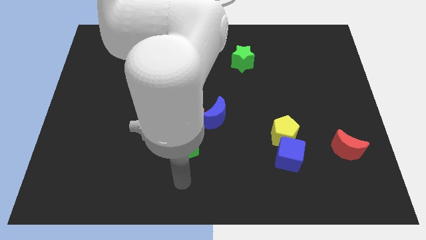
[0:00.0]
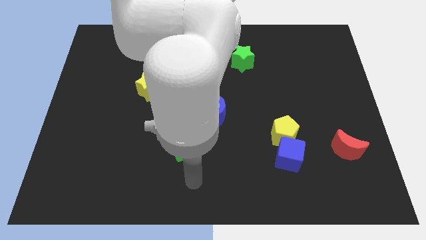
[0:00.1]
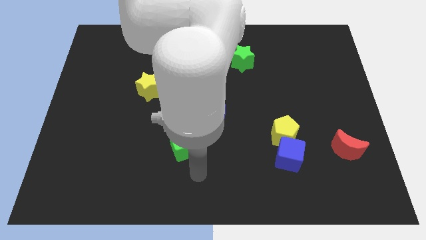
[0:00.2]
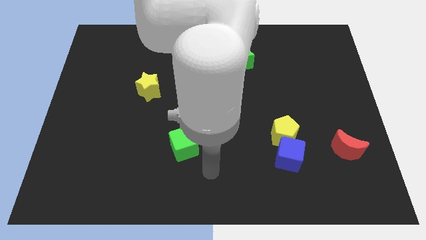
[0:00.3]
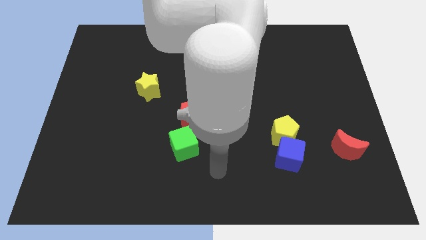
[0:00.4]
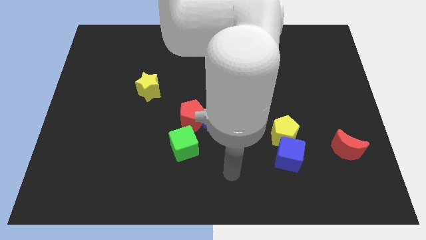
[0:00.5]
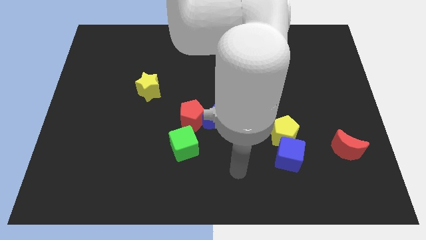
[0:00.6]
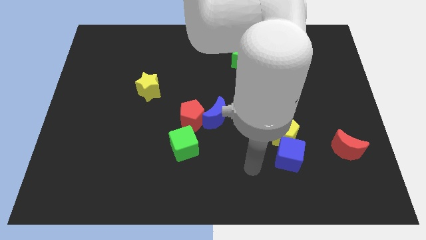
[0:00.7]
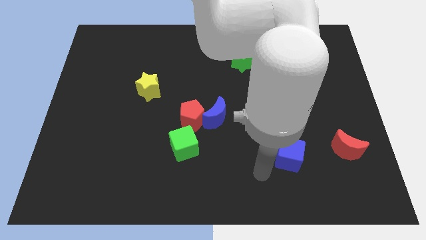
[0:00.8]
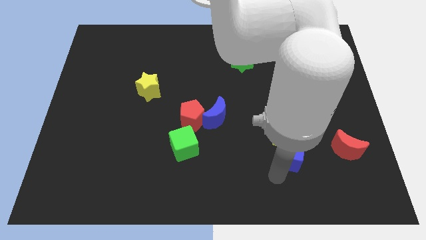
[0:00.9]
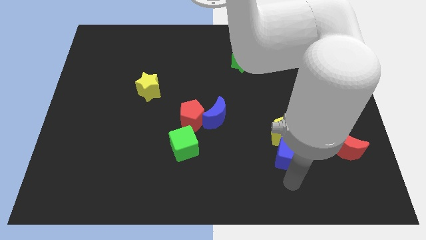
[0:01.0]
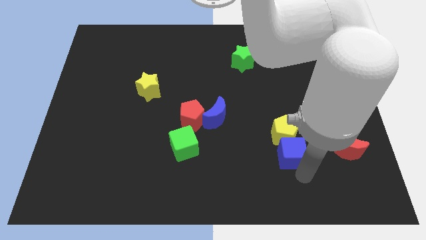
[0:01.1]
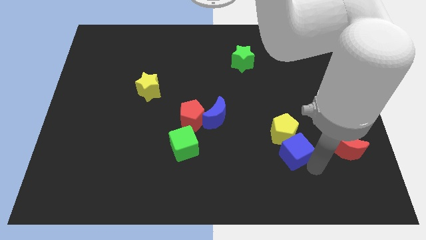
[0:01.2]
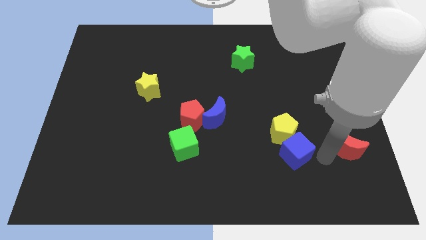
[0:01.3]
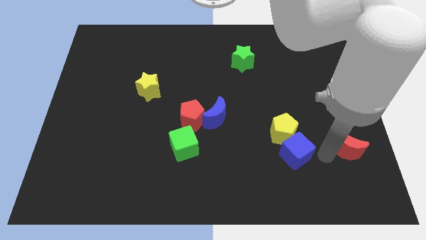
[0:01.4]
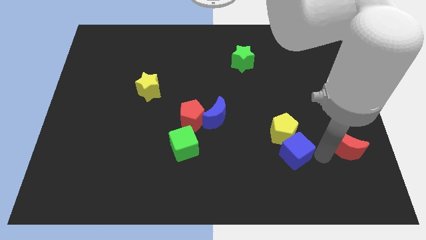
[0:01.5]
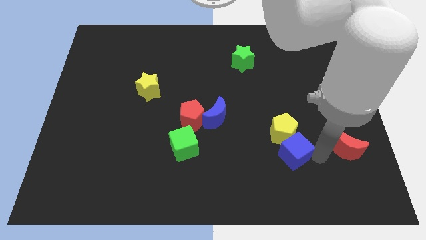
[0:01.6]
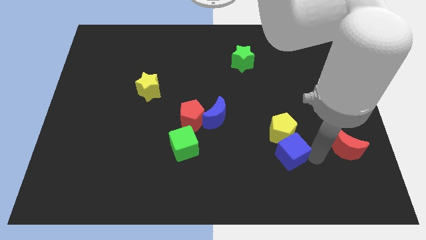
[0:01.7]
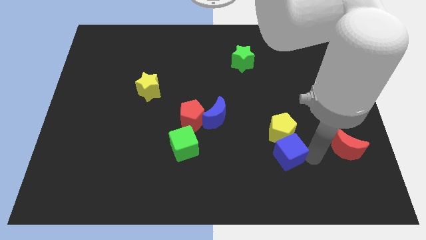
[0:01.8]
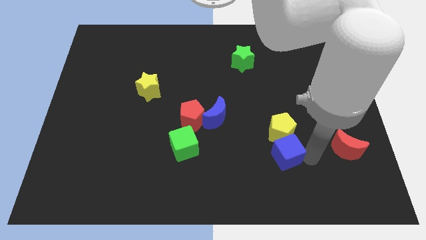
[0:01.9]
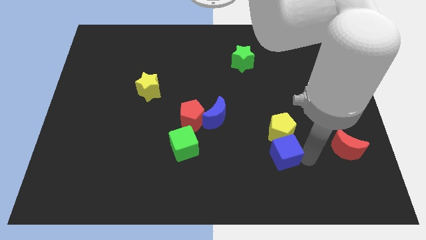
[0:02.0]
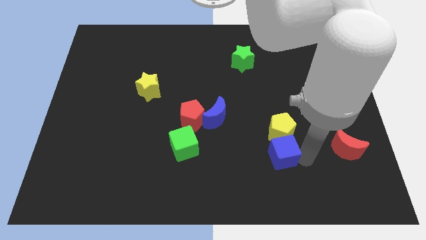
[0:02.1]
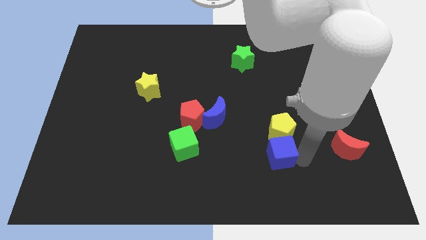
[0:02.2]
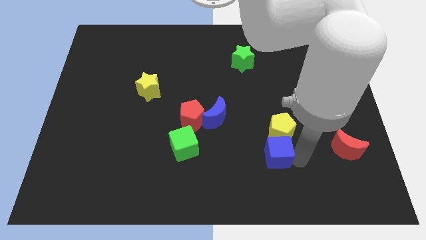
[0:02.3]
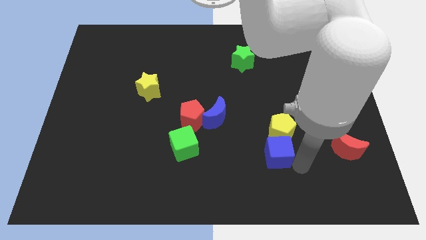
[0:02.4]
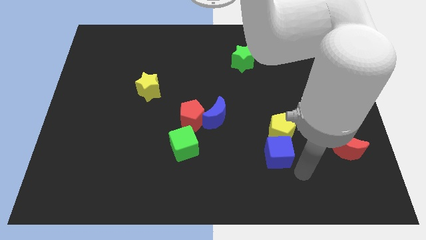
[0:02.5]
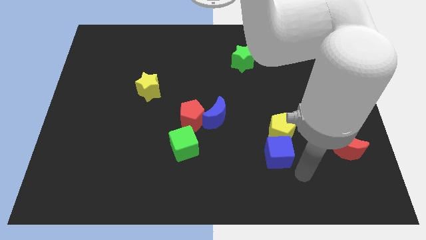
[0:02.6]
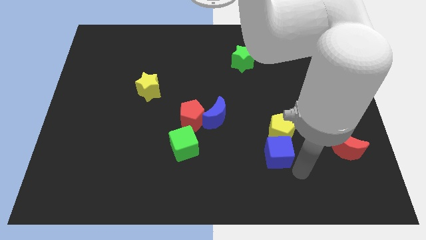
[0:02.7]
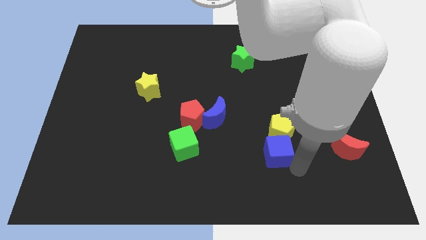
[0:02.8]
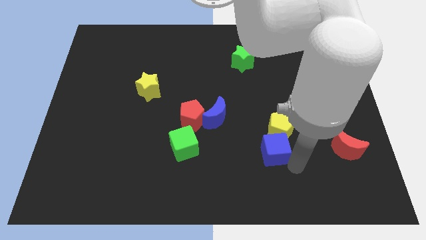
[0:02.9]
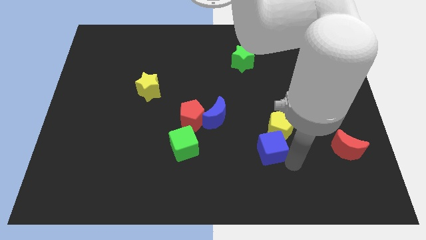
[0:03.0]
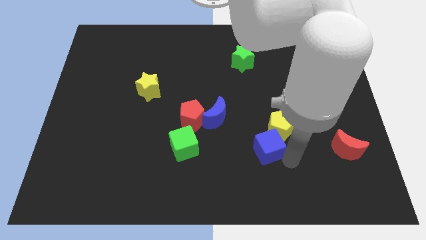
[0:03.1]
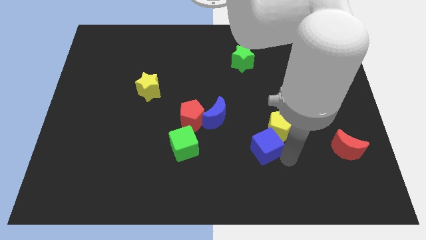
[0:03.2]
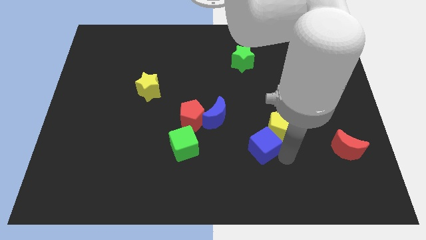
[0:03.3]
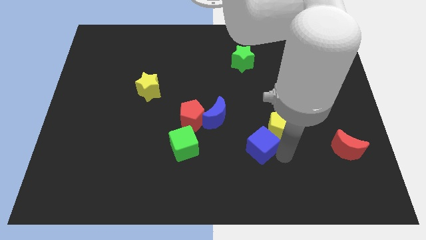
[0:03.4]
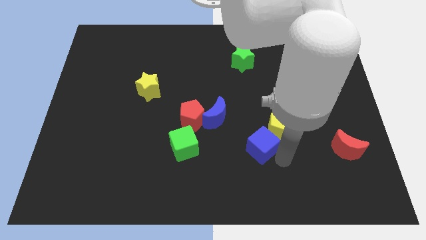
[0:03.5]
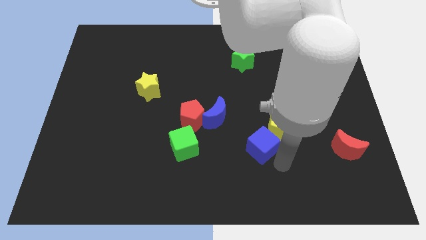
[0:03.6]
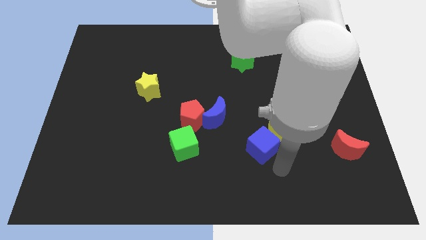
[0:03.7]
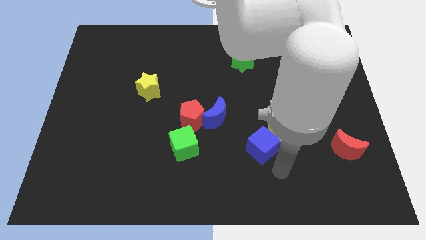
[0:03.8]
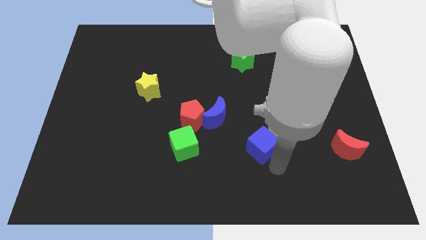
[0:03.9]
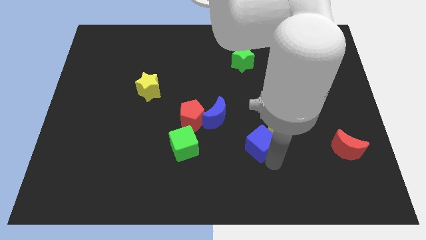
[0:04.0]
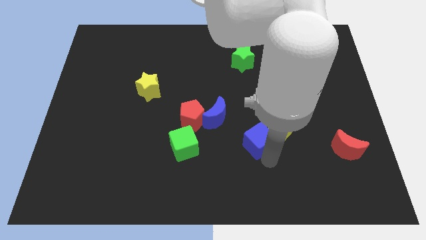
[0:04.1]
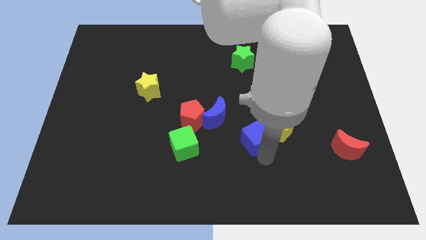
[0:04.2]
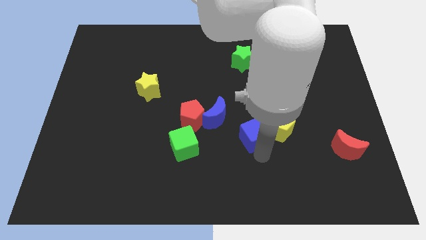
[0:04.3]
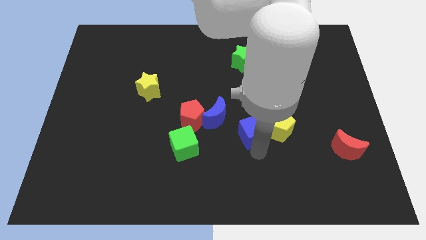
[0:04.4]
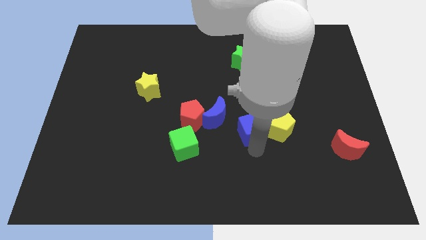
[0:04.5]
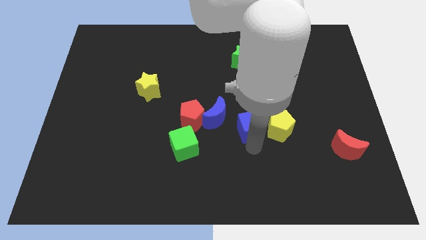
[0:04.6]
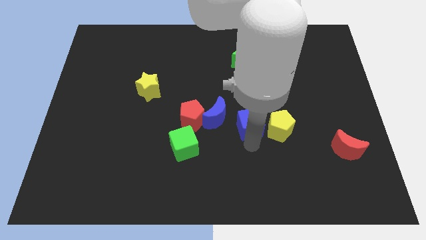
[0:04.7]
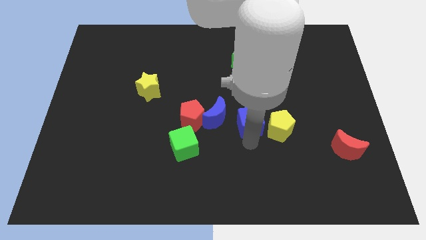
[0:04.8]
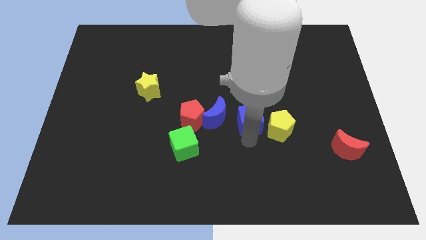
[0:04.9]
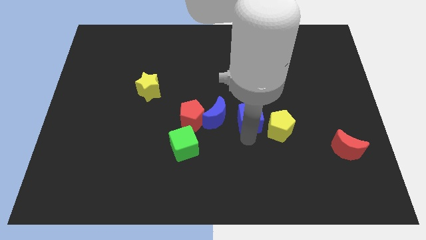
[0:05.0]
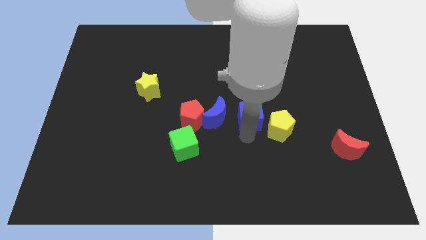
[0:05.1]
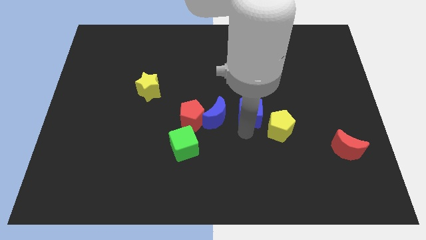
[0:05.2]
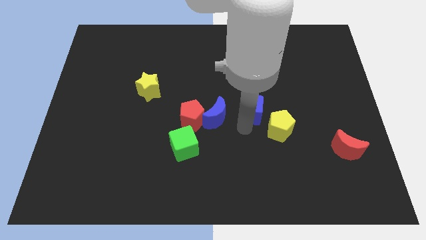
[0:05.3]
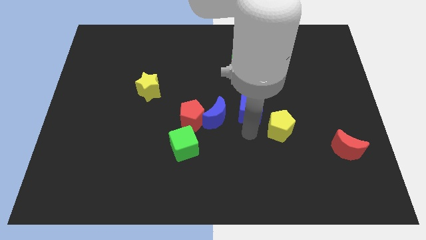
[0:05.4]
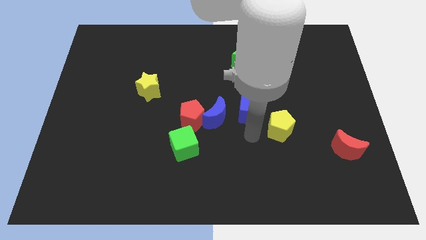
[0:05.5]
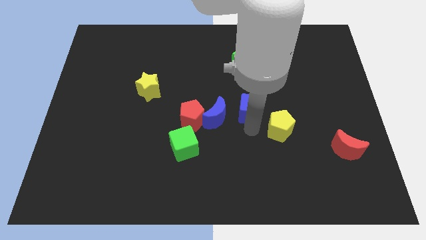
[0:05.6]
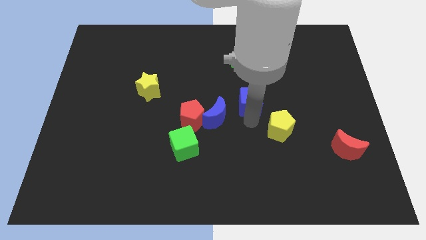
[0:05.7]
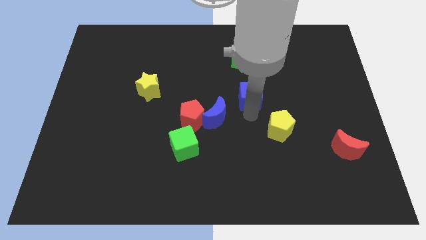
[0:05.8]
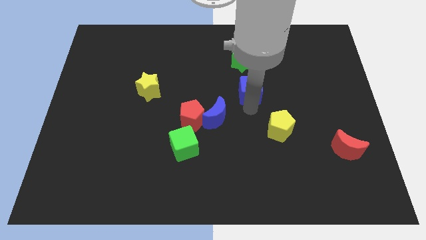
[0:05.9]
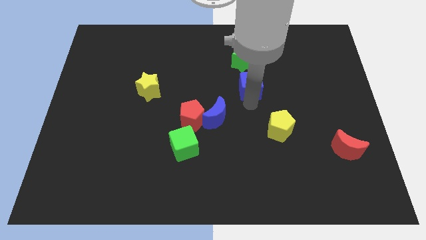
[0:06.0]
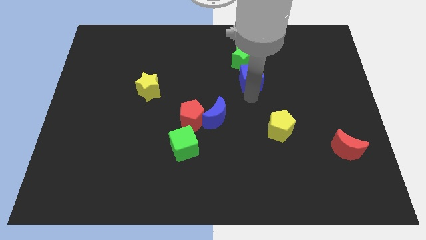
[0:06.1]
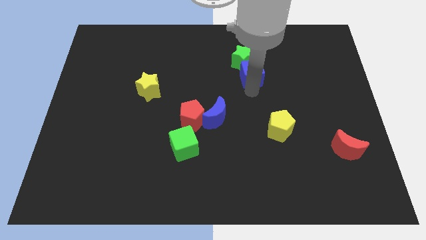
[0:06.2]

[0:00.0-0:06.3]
push the blue cube next to the green star
